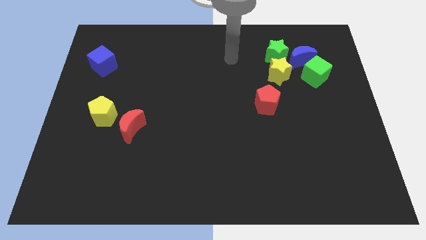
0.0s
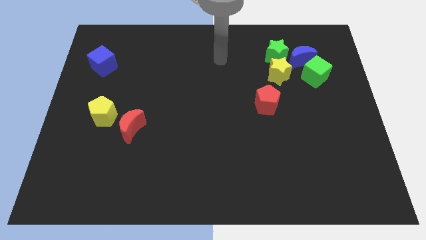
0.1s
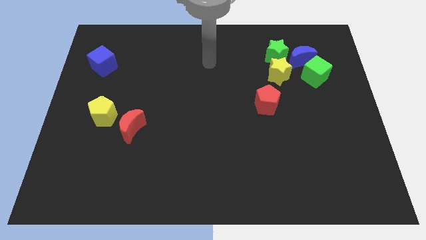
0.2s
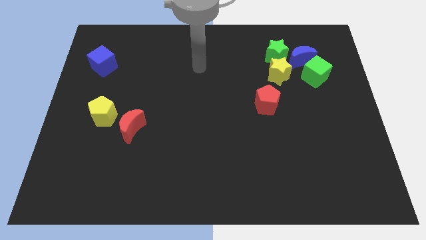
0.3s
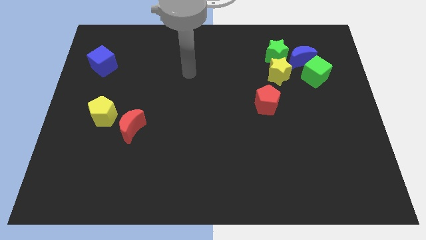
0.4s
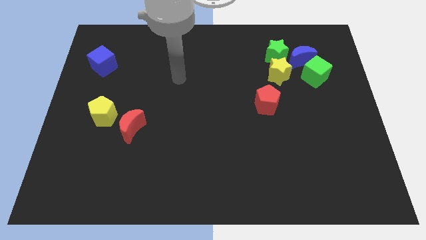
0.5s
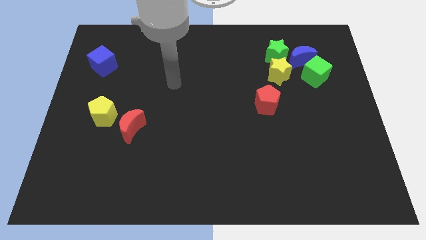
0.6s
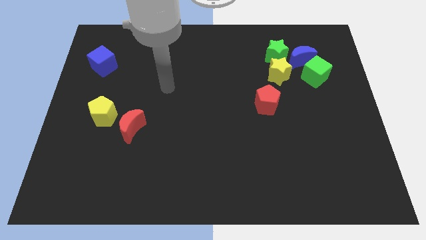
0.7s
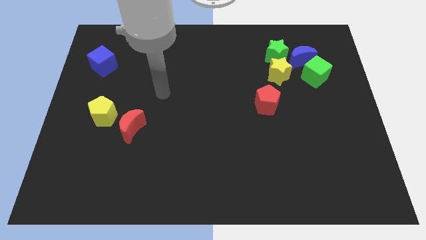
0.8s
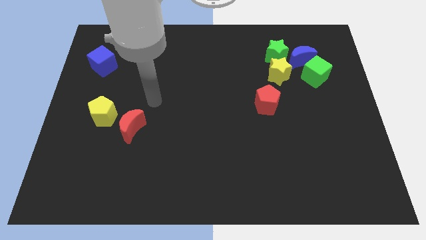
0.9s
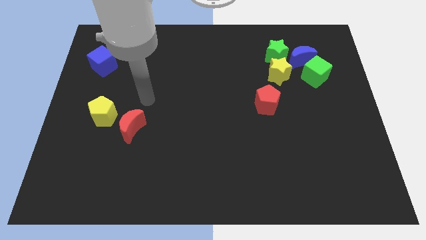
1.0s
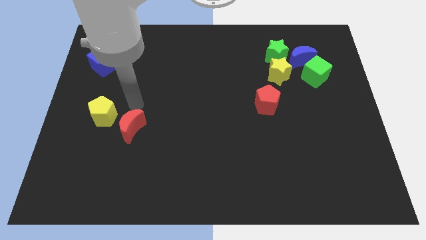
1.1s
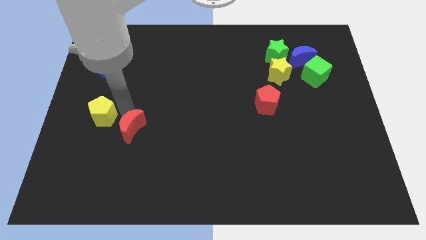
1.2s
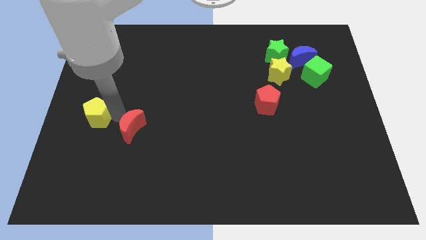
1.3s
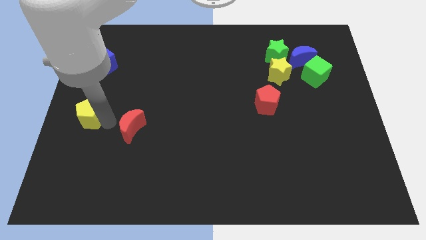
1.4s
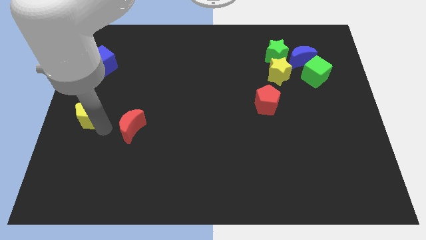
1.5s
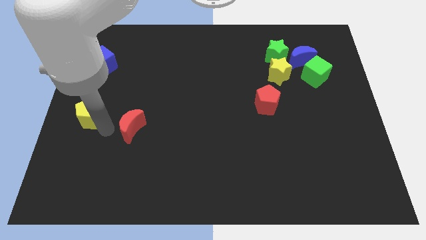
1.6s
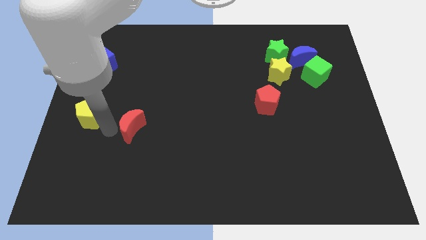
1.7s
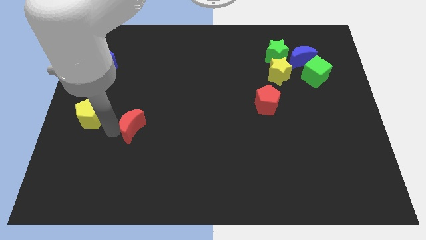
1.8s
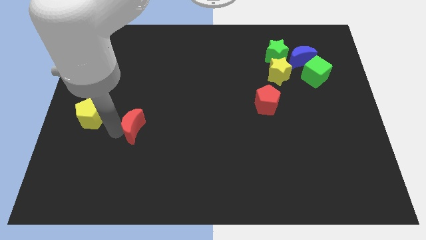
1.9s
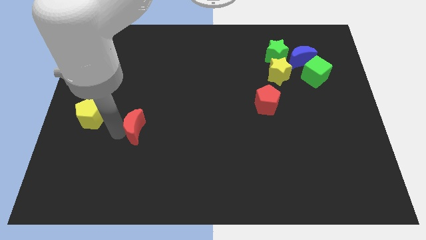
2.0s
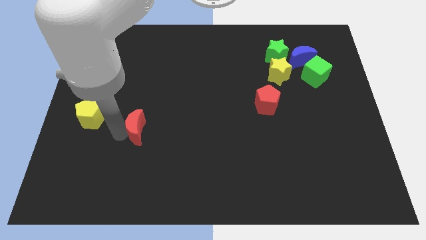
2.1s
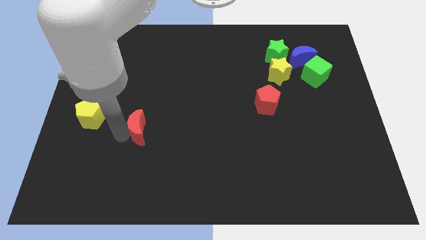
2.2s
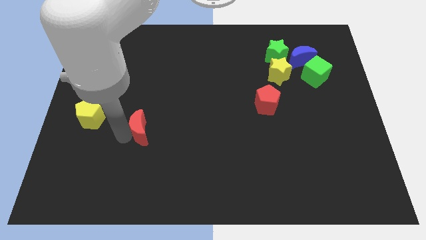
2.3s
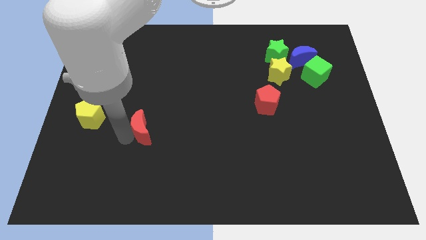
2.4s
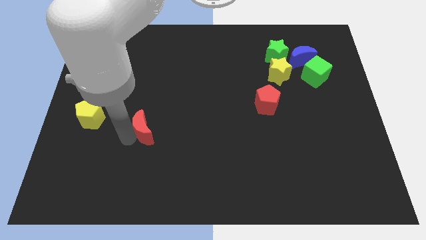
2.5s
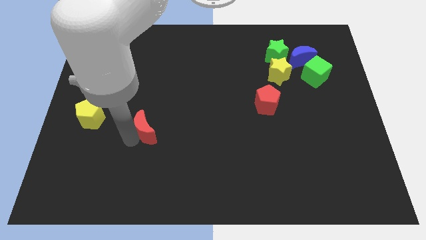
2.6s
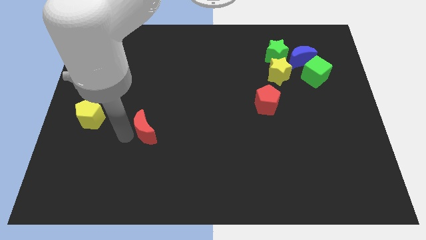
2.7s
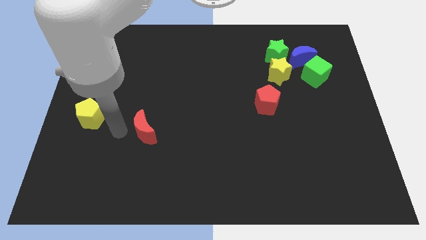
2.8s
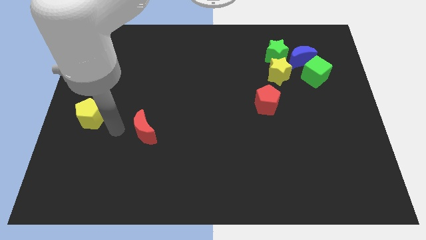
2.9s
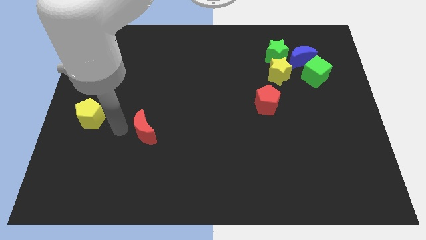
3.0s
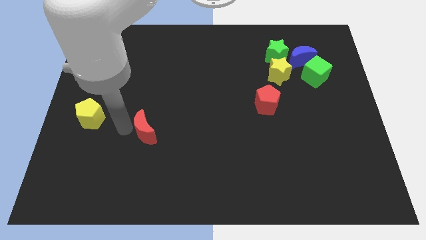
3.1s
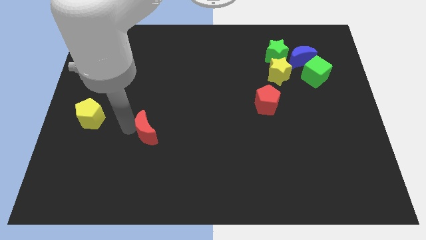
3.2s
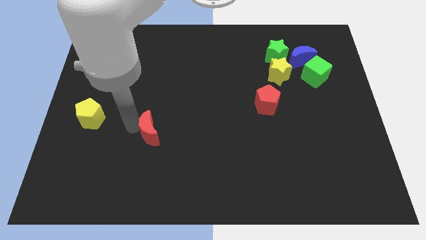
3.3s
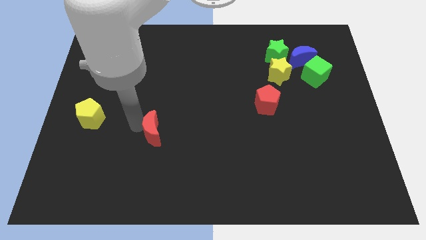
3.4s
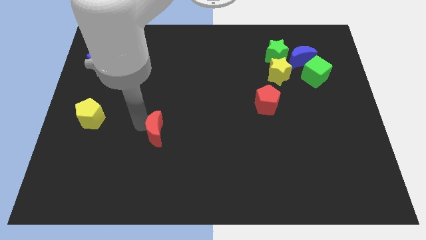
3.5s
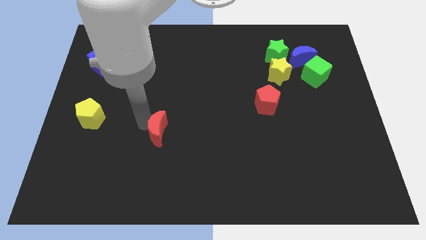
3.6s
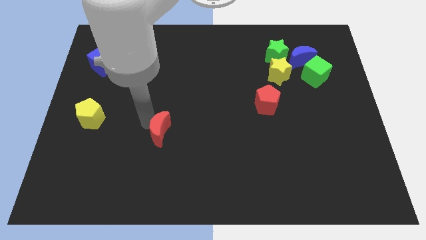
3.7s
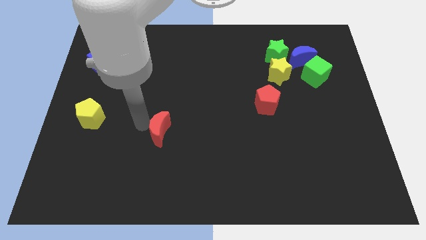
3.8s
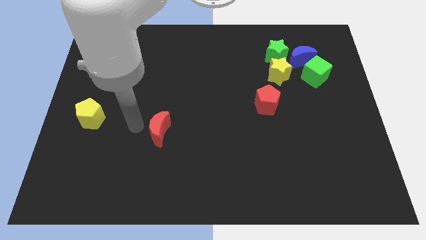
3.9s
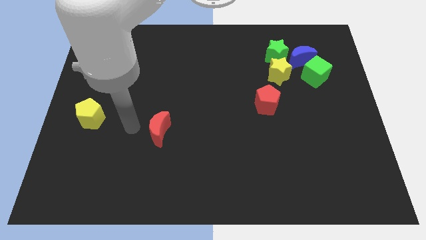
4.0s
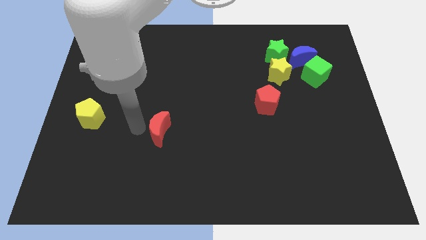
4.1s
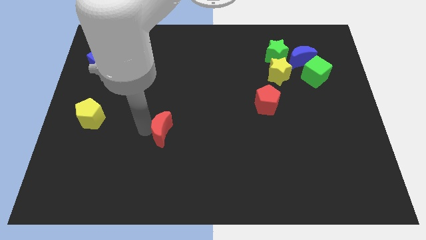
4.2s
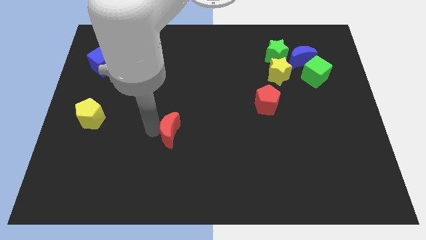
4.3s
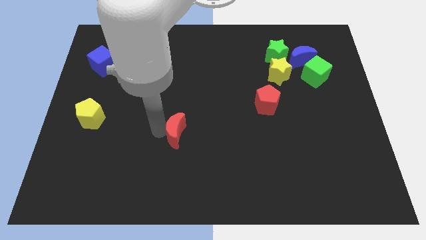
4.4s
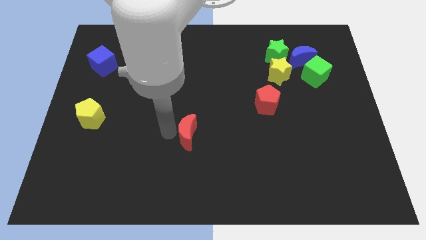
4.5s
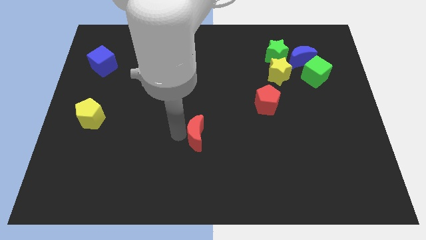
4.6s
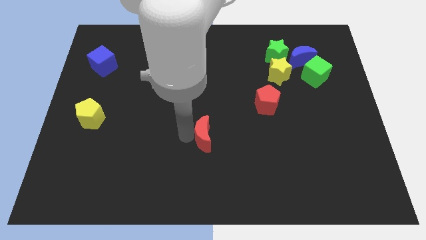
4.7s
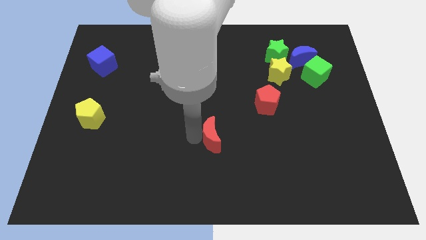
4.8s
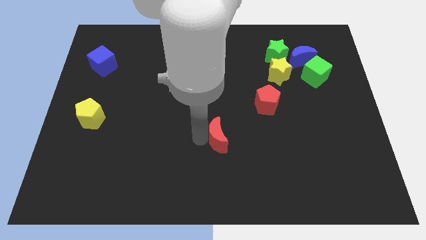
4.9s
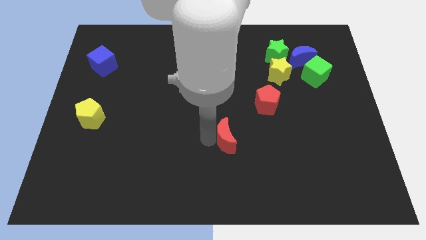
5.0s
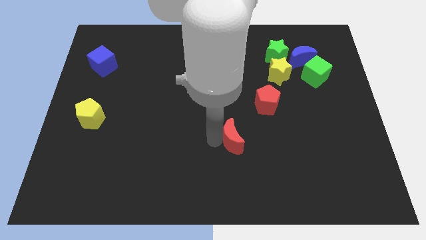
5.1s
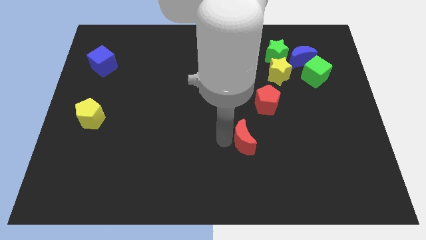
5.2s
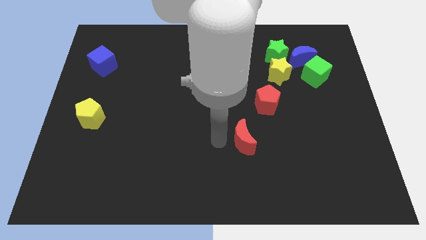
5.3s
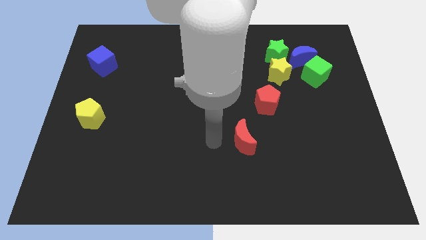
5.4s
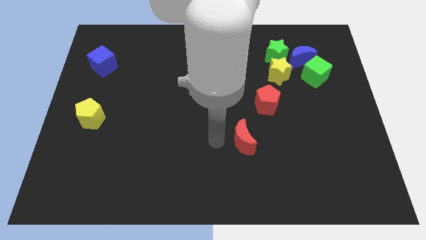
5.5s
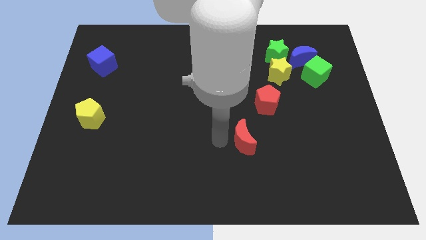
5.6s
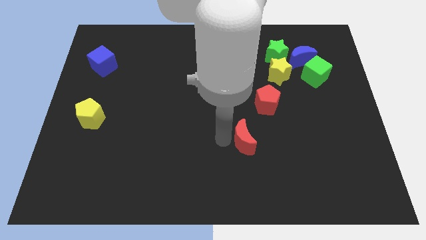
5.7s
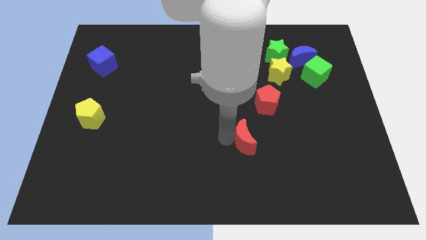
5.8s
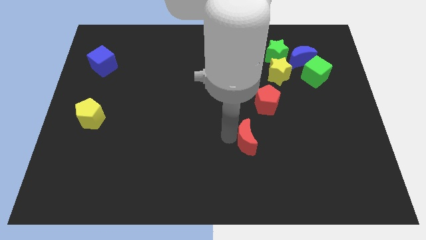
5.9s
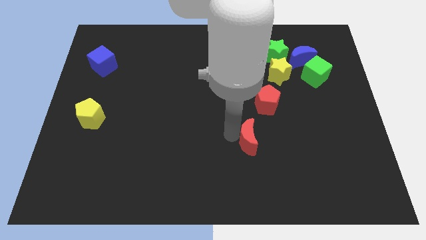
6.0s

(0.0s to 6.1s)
push the red moon below the red pentagon

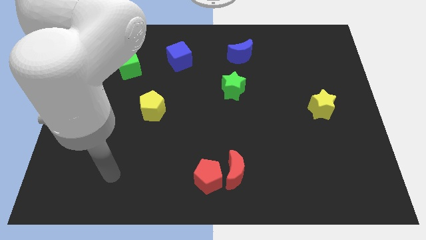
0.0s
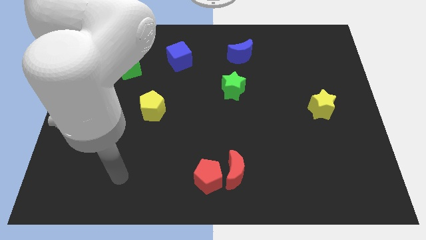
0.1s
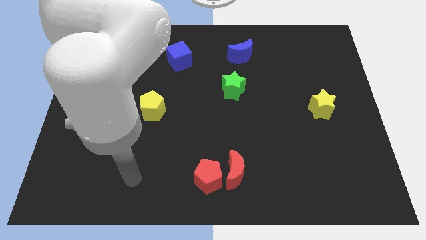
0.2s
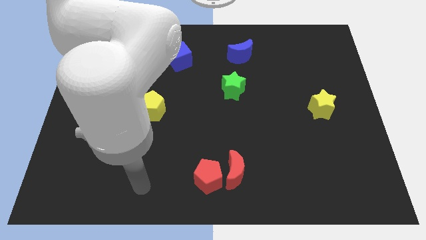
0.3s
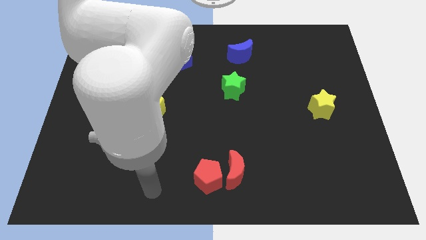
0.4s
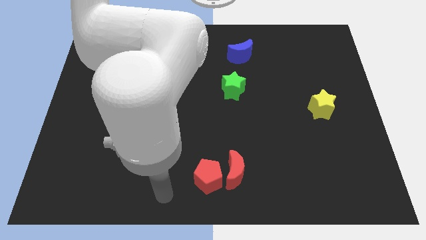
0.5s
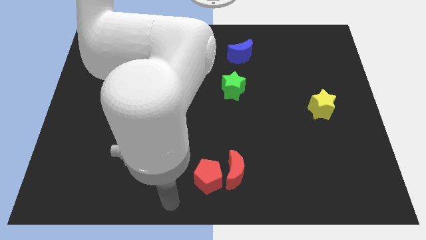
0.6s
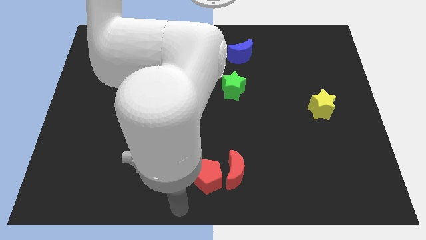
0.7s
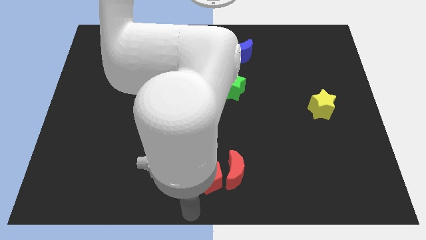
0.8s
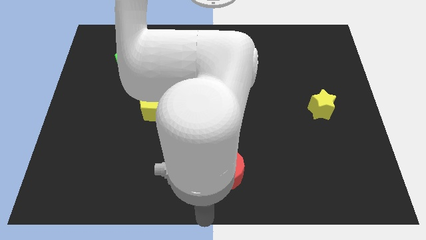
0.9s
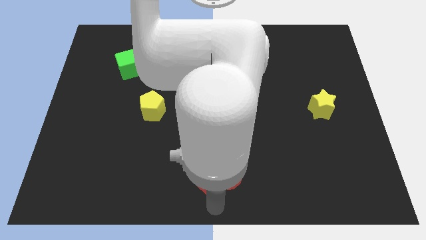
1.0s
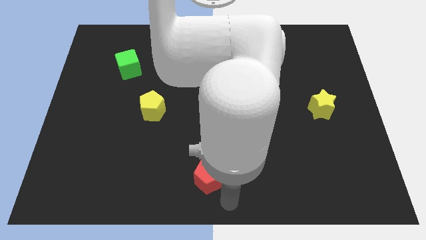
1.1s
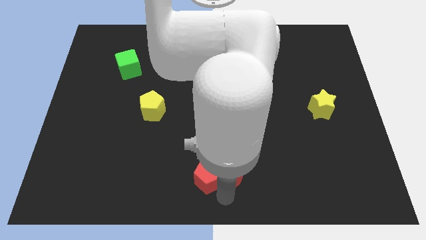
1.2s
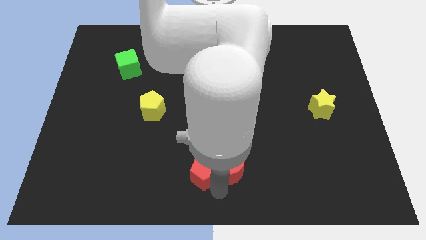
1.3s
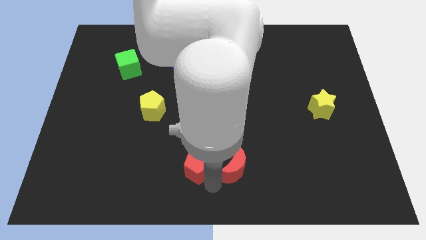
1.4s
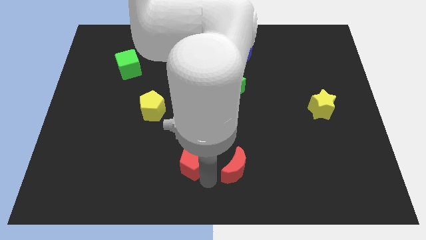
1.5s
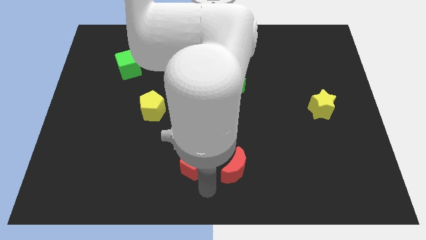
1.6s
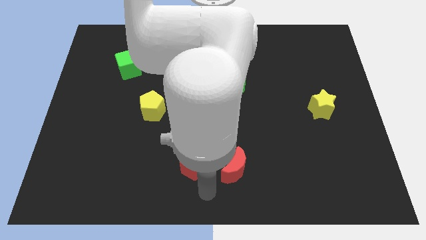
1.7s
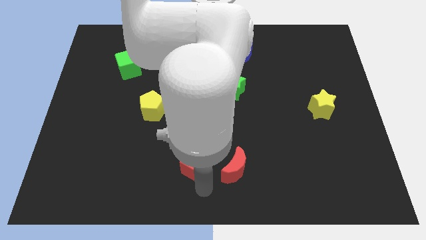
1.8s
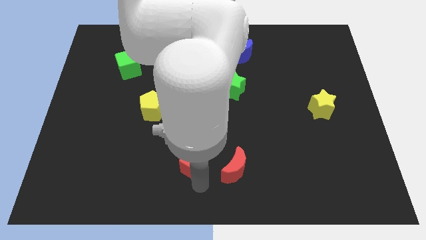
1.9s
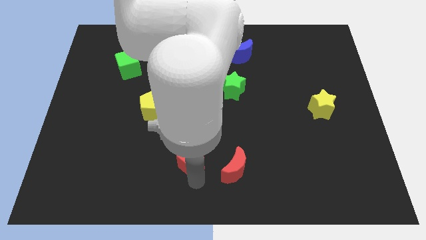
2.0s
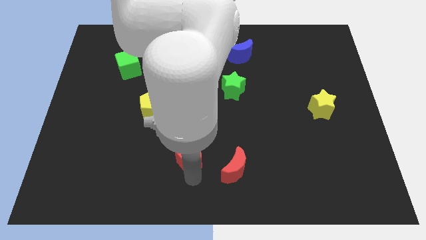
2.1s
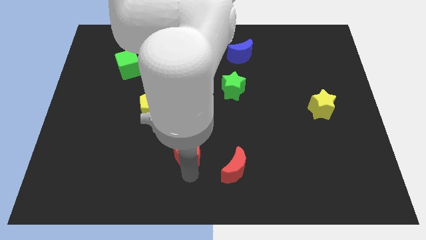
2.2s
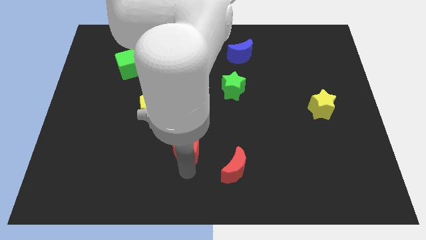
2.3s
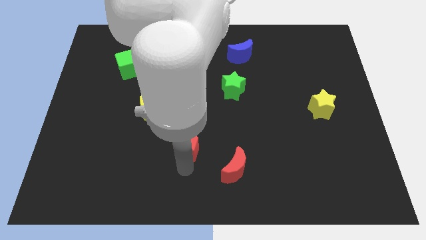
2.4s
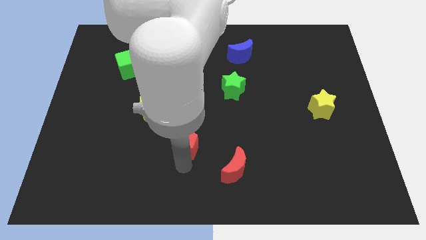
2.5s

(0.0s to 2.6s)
slide the red pentagon to the bottom right side of the yellow pentagon
